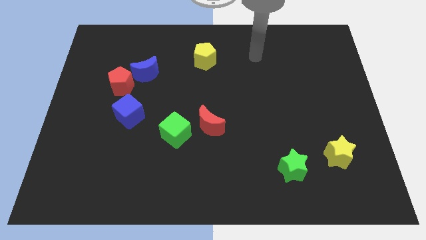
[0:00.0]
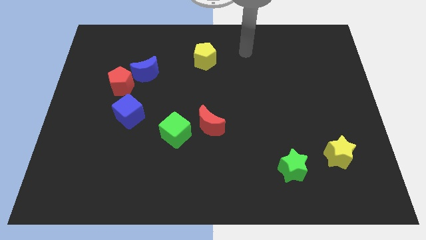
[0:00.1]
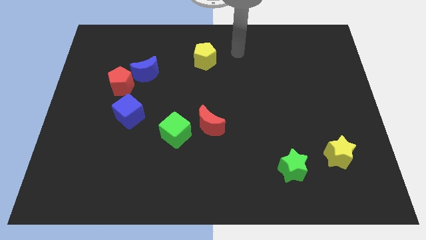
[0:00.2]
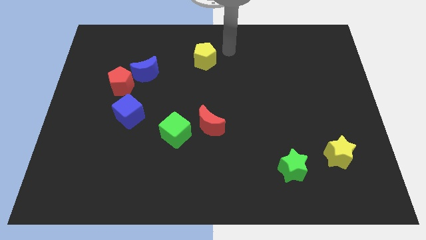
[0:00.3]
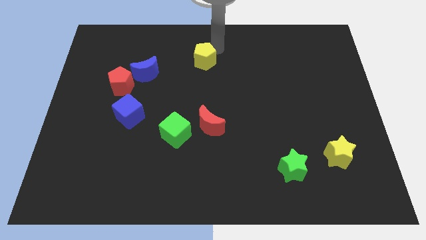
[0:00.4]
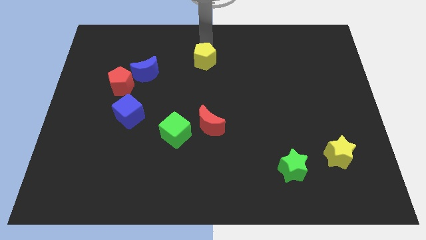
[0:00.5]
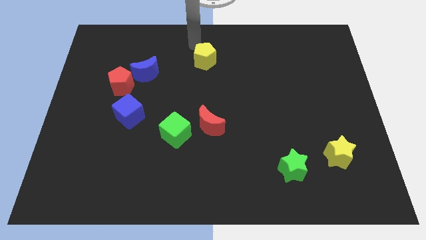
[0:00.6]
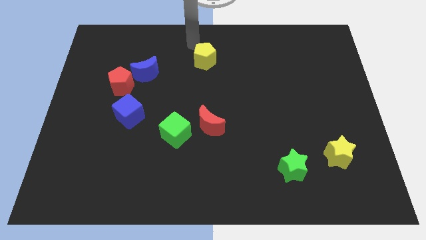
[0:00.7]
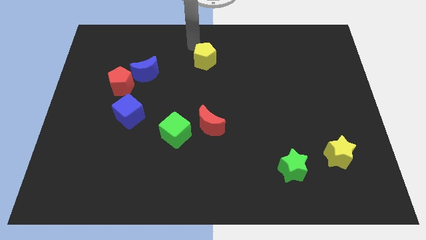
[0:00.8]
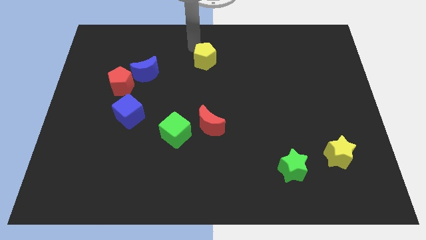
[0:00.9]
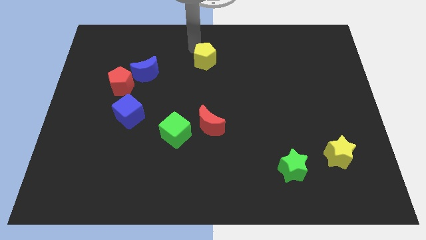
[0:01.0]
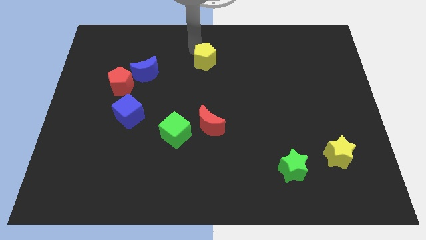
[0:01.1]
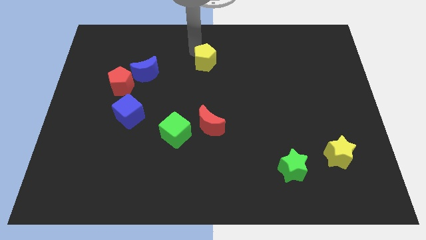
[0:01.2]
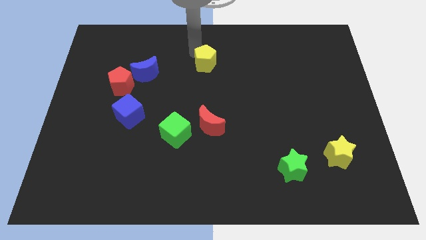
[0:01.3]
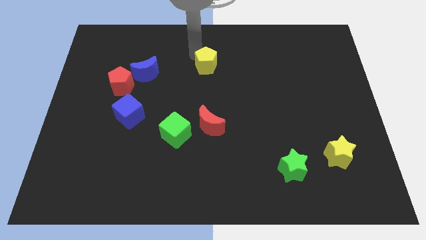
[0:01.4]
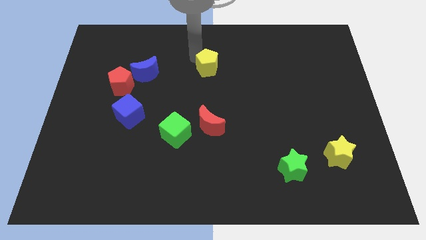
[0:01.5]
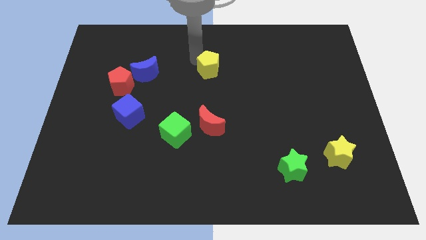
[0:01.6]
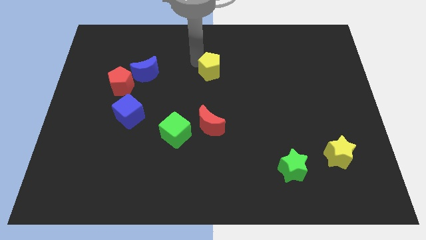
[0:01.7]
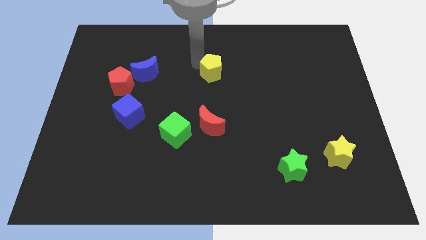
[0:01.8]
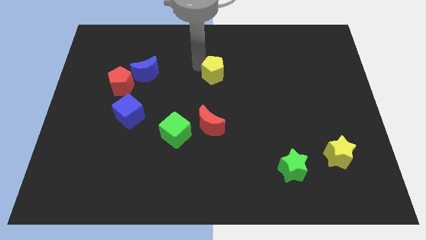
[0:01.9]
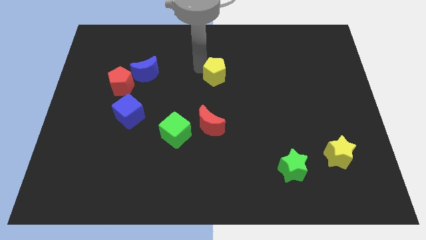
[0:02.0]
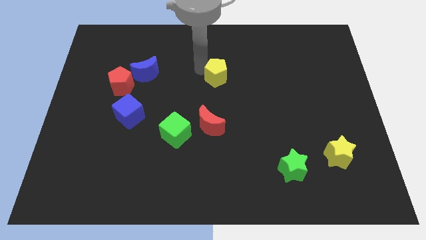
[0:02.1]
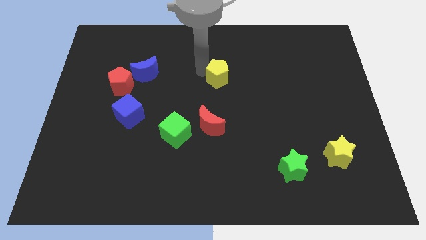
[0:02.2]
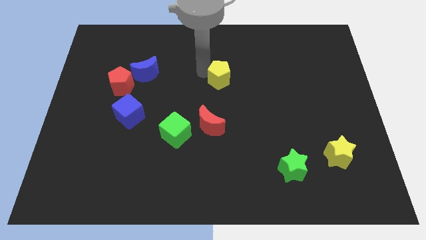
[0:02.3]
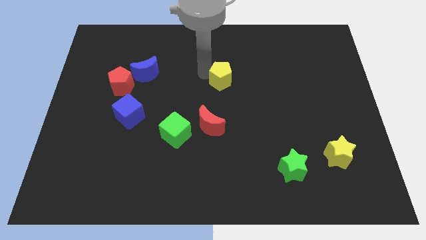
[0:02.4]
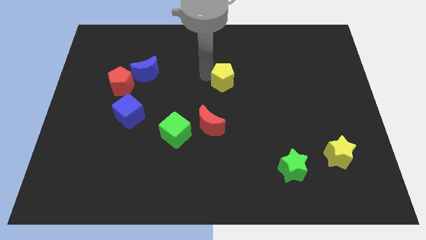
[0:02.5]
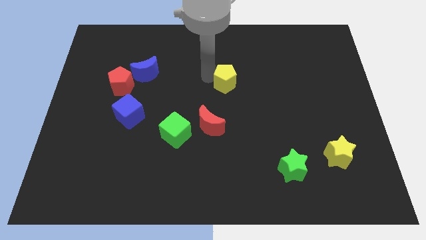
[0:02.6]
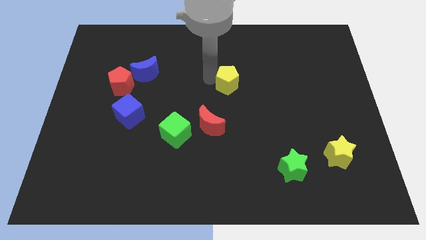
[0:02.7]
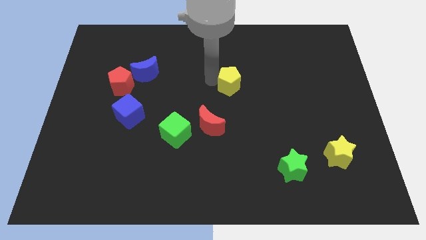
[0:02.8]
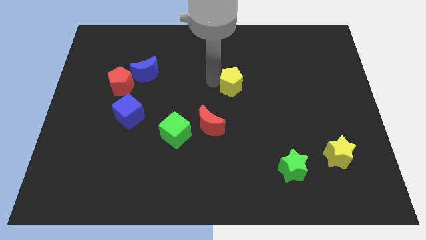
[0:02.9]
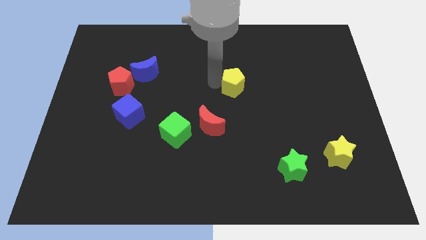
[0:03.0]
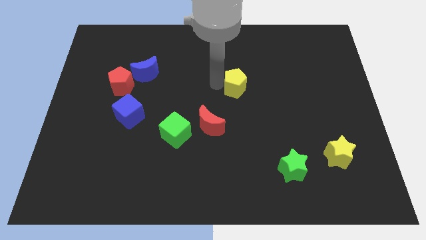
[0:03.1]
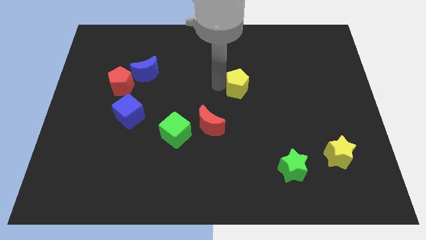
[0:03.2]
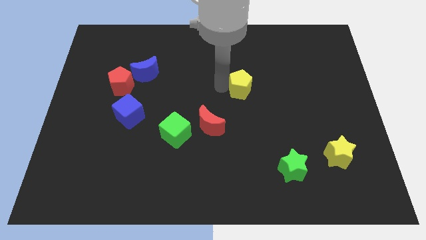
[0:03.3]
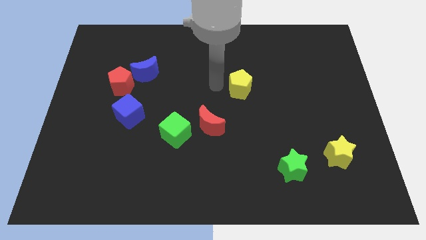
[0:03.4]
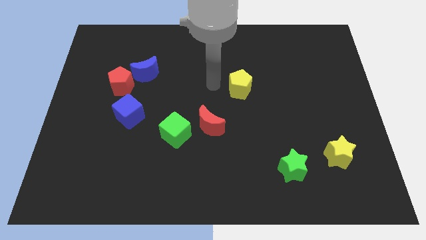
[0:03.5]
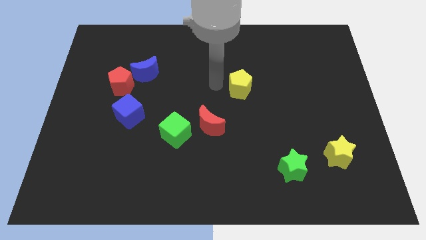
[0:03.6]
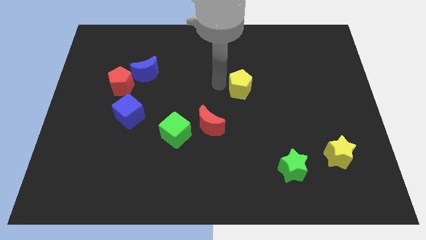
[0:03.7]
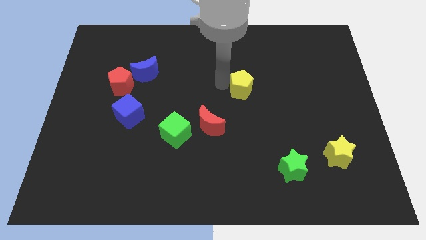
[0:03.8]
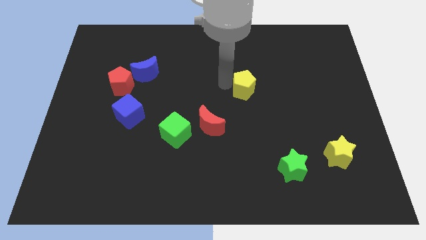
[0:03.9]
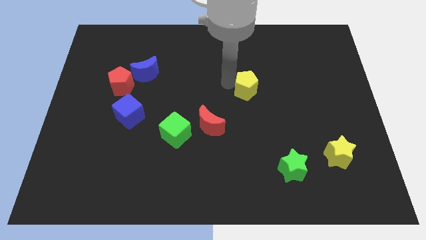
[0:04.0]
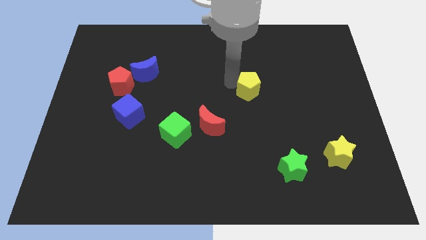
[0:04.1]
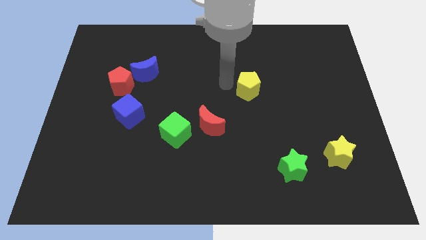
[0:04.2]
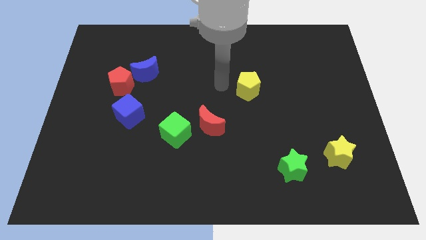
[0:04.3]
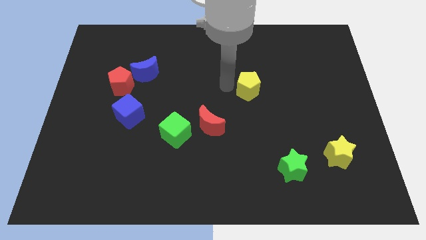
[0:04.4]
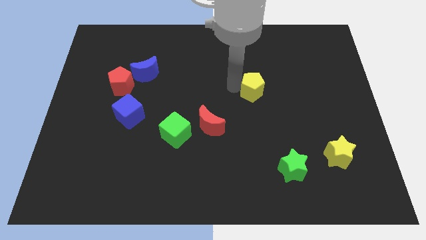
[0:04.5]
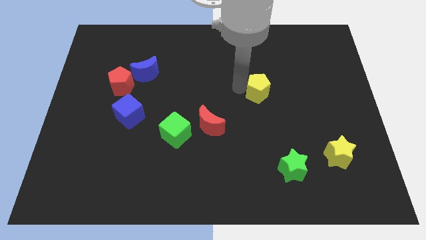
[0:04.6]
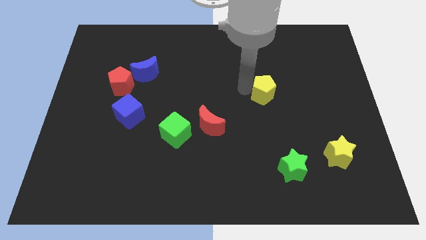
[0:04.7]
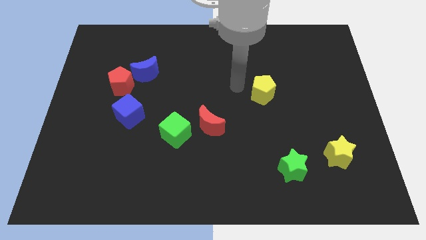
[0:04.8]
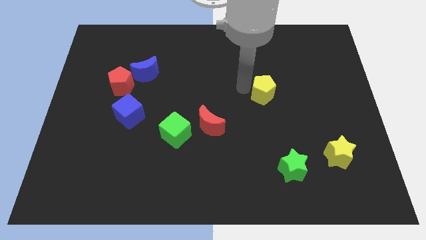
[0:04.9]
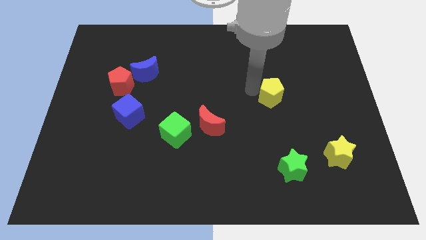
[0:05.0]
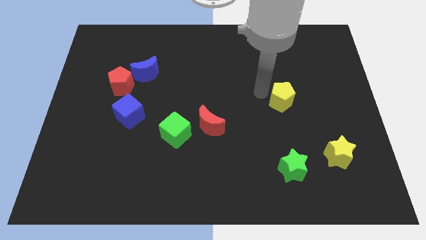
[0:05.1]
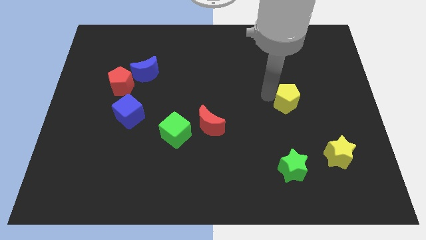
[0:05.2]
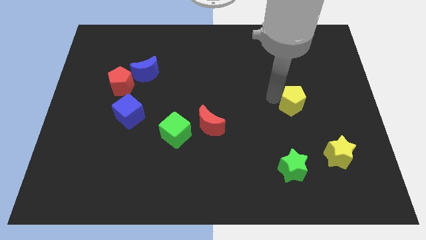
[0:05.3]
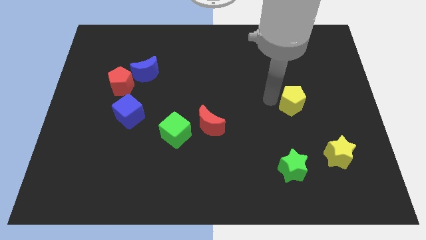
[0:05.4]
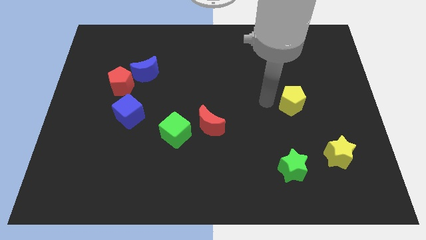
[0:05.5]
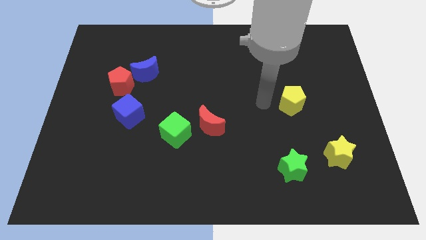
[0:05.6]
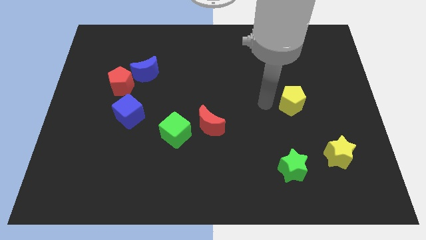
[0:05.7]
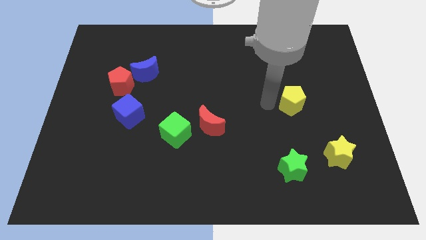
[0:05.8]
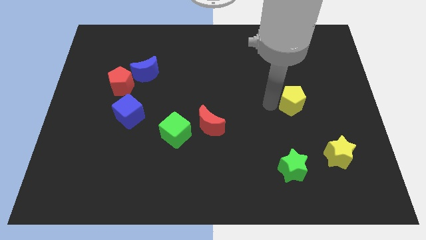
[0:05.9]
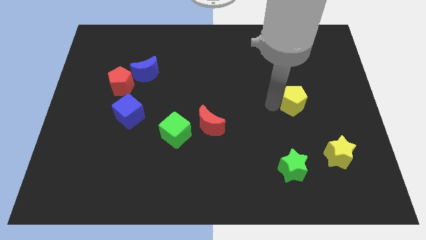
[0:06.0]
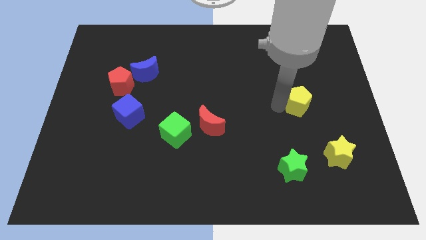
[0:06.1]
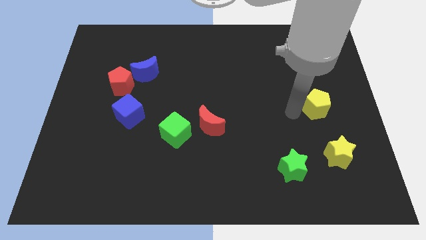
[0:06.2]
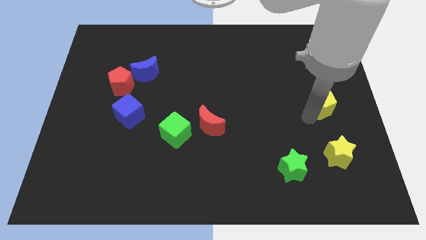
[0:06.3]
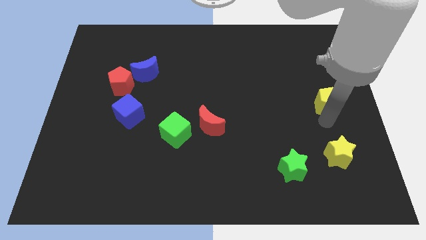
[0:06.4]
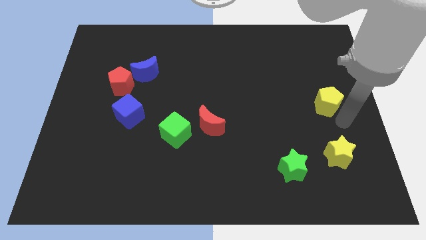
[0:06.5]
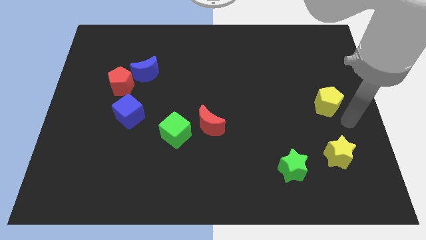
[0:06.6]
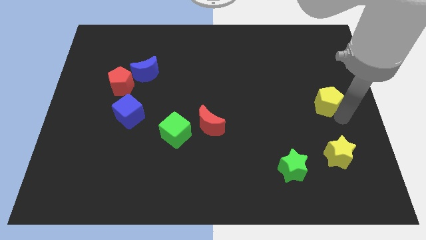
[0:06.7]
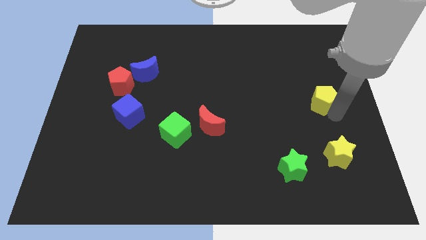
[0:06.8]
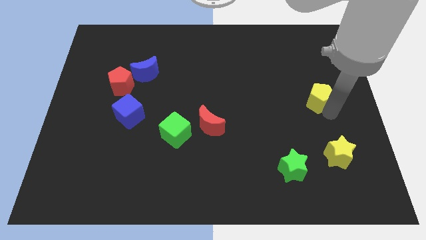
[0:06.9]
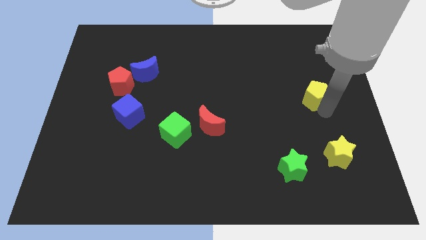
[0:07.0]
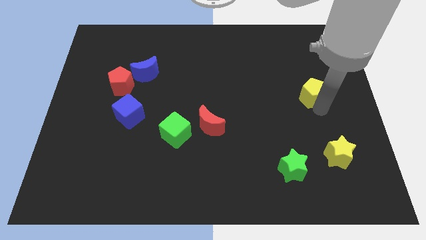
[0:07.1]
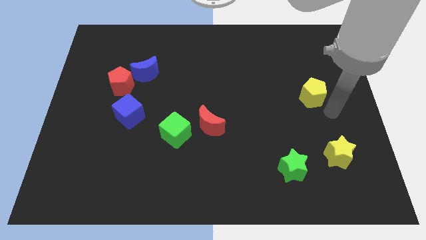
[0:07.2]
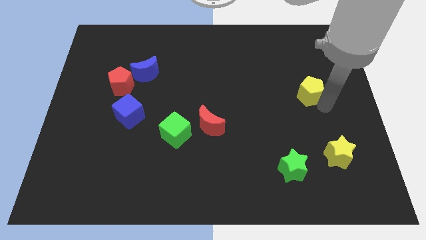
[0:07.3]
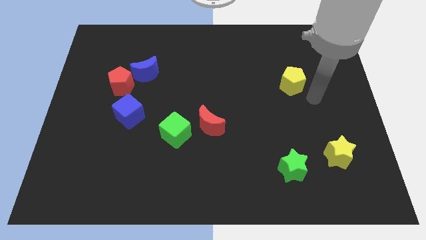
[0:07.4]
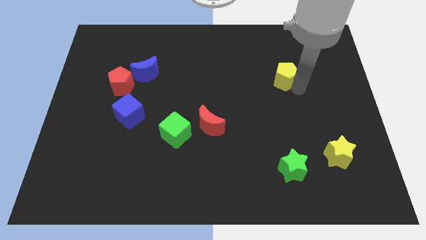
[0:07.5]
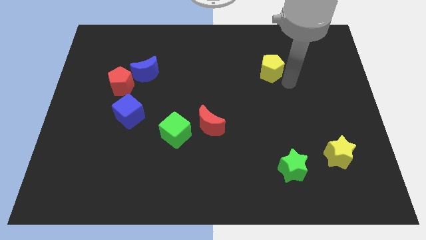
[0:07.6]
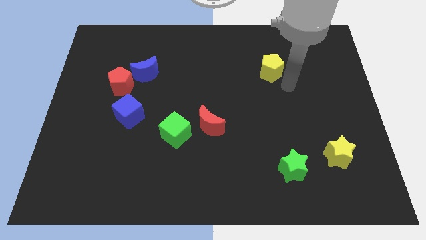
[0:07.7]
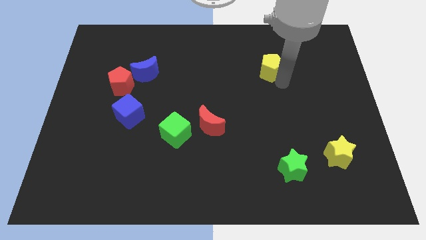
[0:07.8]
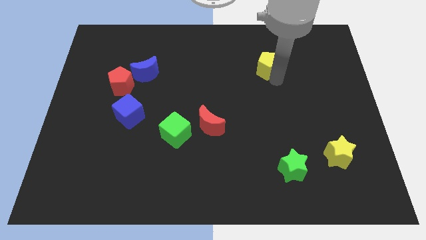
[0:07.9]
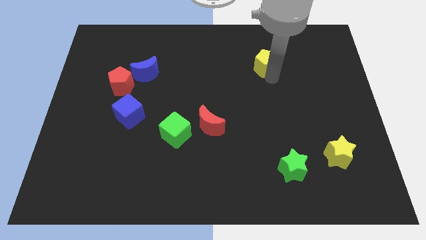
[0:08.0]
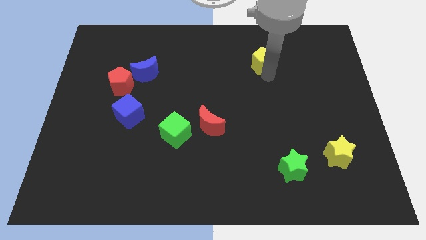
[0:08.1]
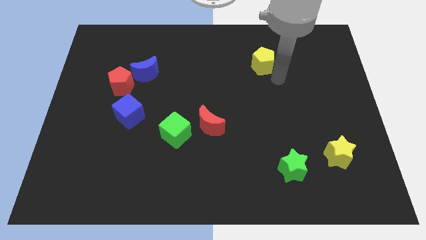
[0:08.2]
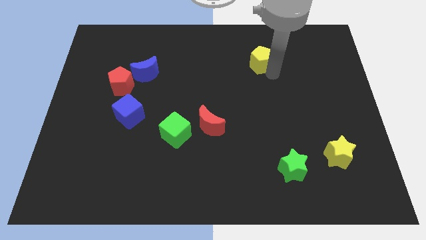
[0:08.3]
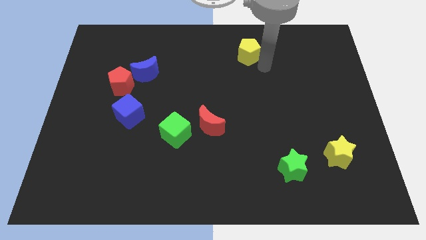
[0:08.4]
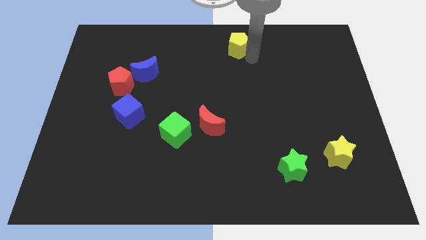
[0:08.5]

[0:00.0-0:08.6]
slide the yellow pentagon to the top
